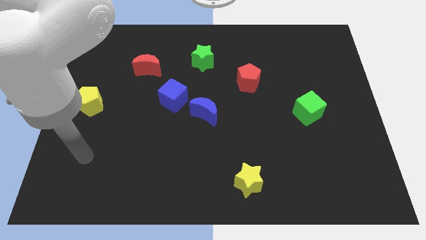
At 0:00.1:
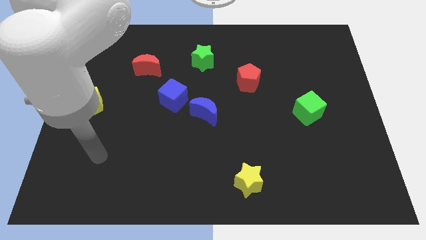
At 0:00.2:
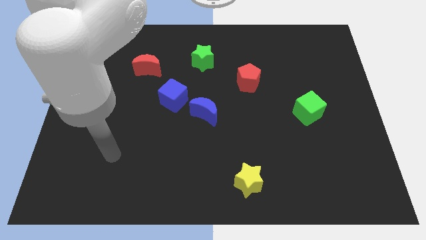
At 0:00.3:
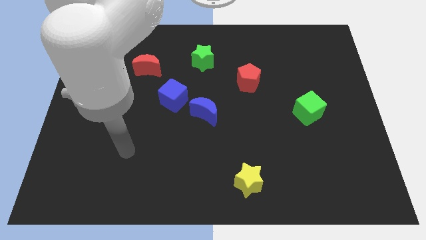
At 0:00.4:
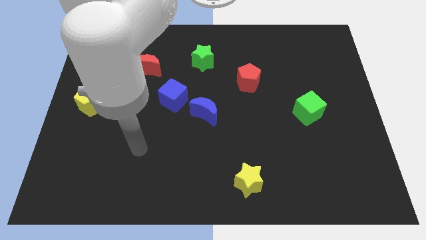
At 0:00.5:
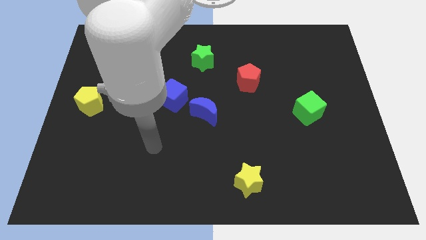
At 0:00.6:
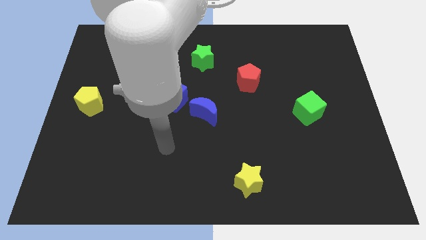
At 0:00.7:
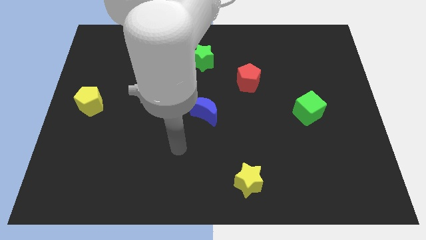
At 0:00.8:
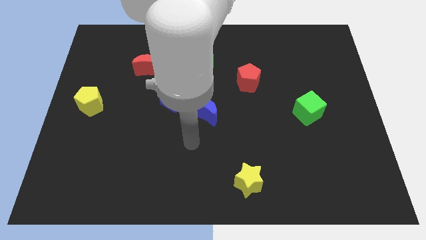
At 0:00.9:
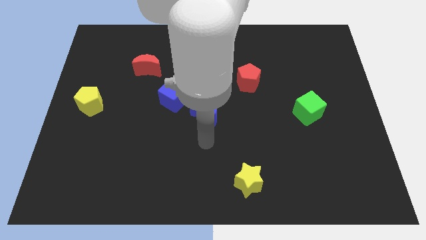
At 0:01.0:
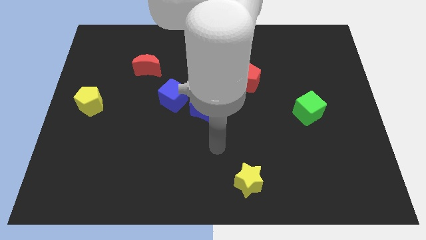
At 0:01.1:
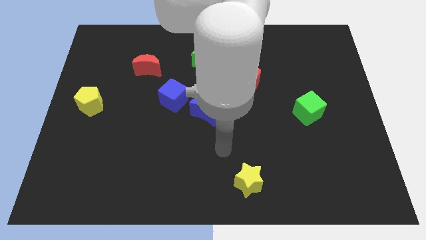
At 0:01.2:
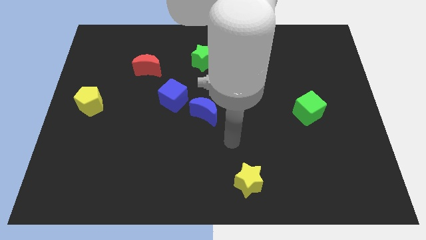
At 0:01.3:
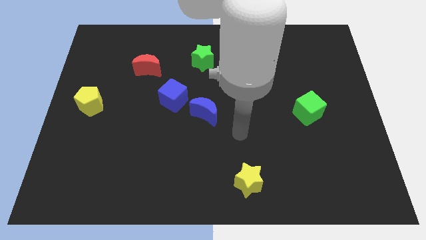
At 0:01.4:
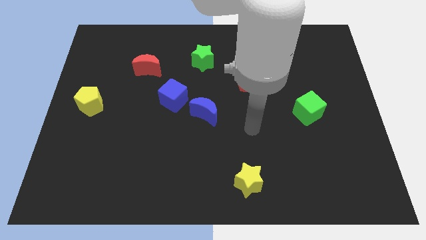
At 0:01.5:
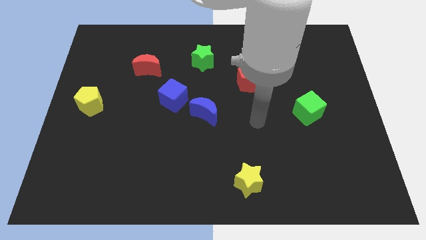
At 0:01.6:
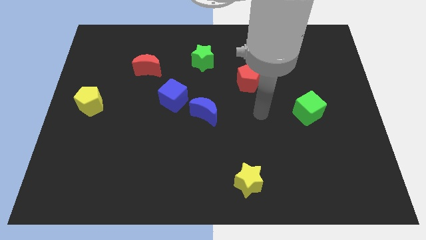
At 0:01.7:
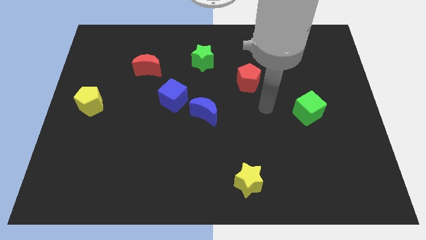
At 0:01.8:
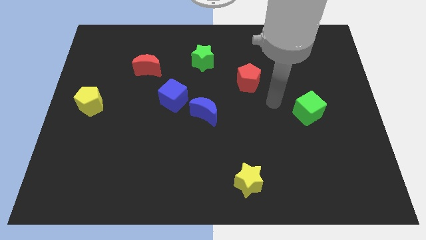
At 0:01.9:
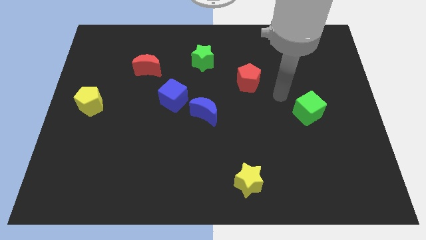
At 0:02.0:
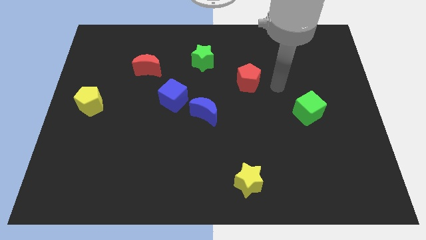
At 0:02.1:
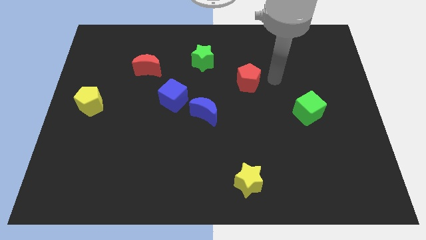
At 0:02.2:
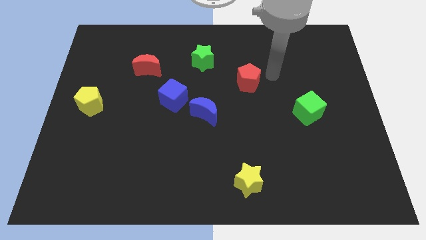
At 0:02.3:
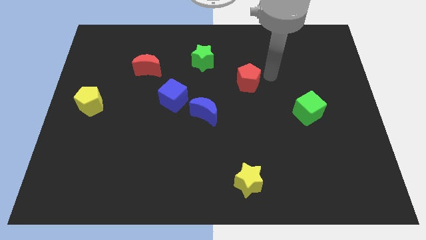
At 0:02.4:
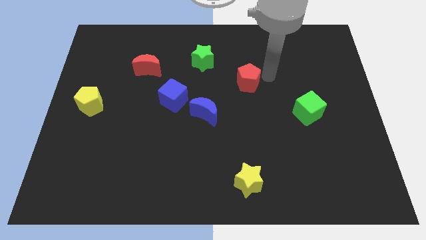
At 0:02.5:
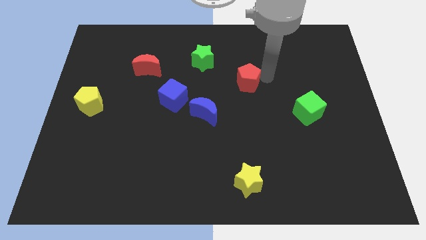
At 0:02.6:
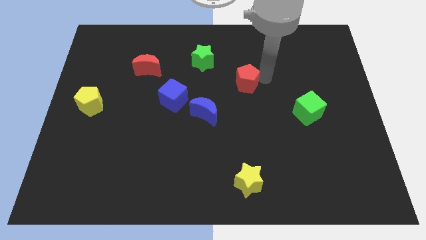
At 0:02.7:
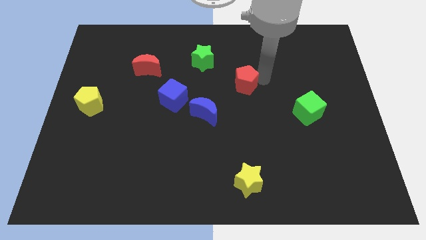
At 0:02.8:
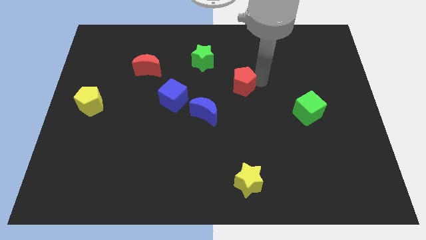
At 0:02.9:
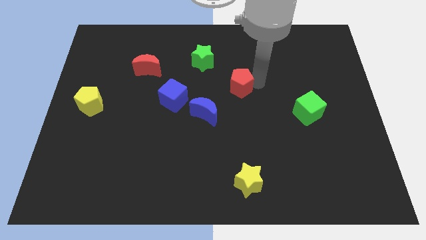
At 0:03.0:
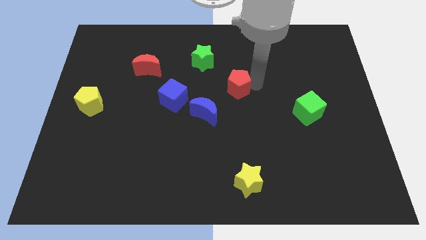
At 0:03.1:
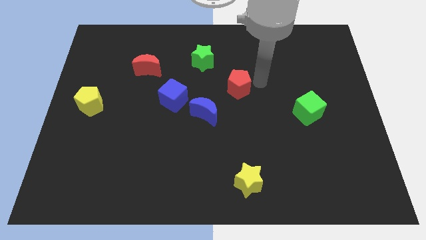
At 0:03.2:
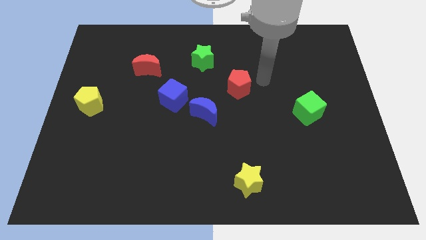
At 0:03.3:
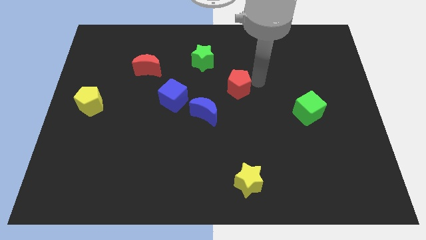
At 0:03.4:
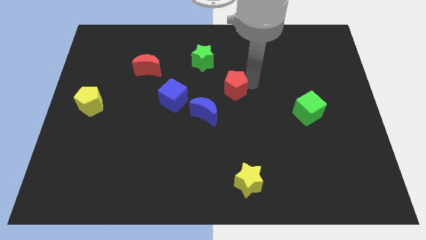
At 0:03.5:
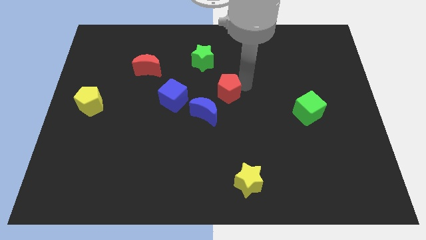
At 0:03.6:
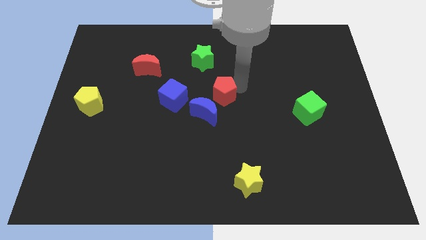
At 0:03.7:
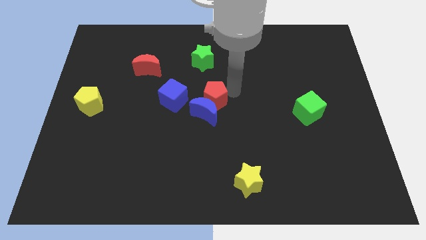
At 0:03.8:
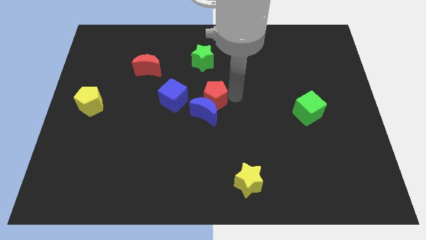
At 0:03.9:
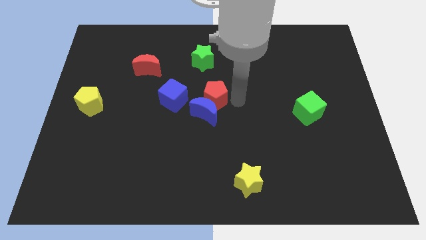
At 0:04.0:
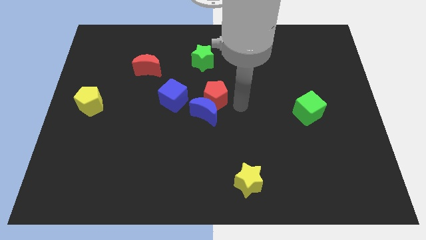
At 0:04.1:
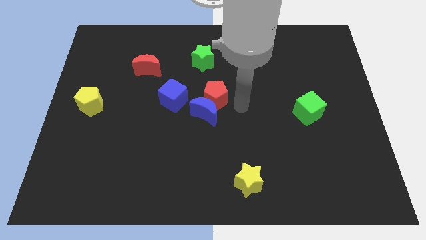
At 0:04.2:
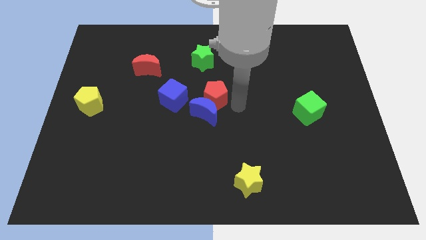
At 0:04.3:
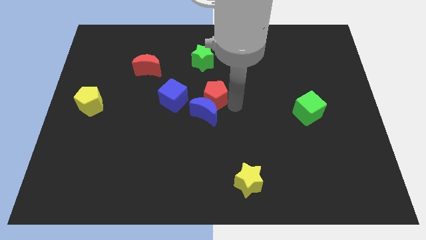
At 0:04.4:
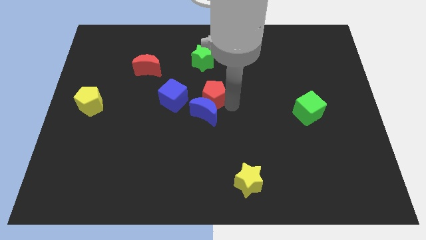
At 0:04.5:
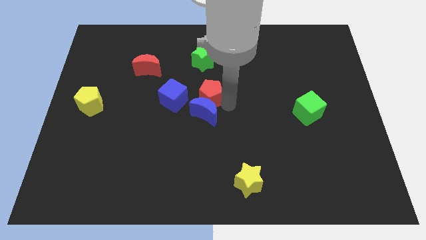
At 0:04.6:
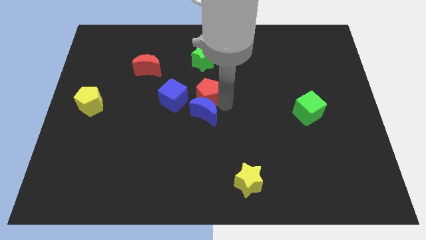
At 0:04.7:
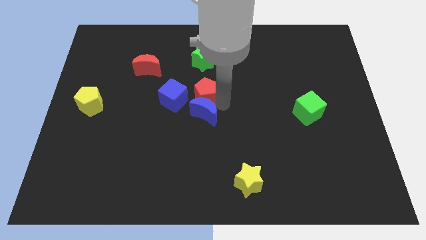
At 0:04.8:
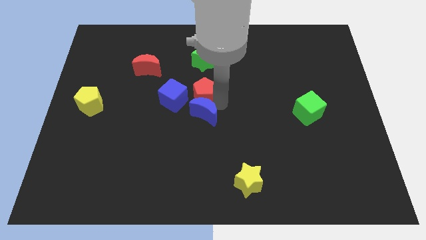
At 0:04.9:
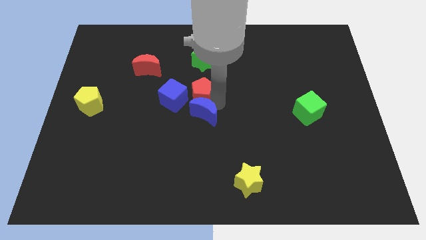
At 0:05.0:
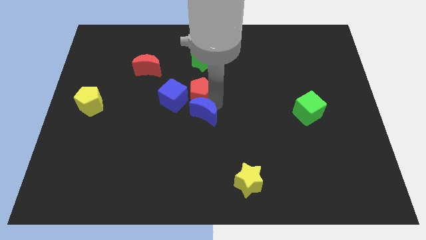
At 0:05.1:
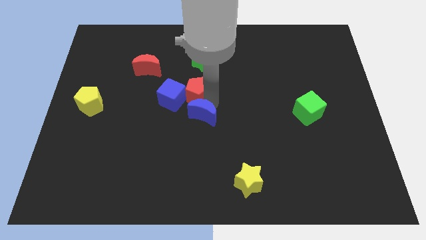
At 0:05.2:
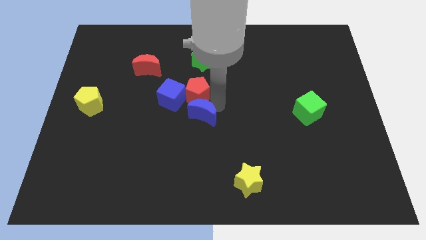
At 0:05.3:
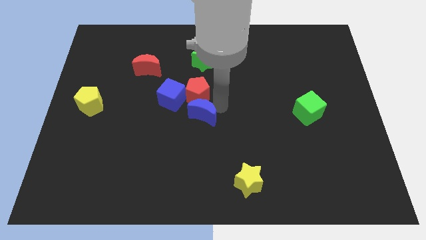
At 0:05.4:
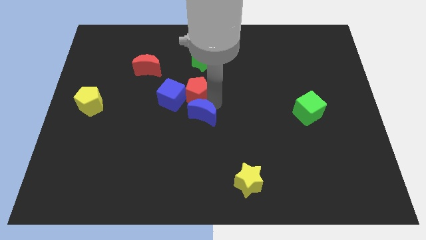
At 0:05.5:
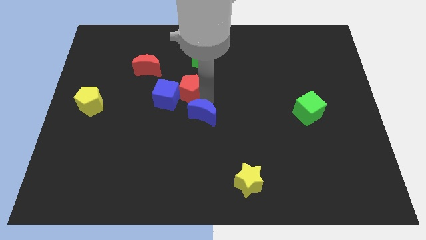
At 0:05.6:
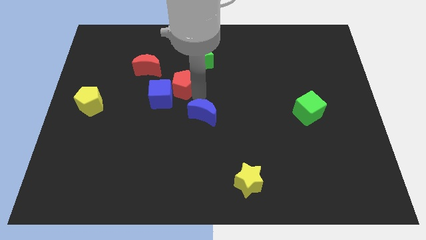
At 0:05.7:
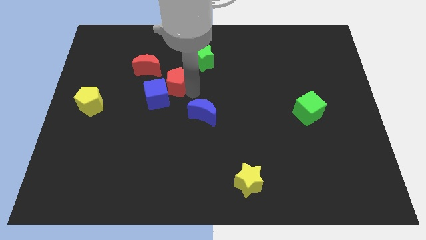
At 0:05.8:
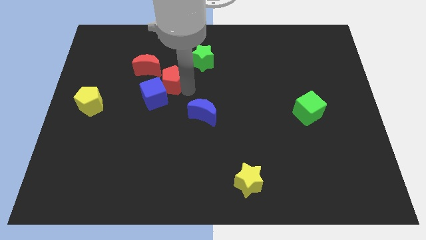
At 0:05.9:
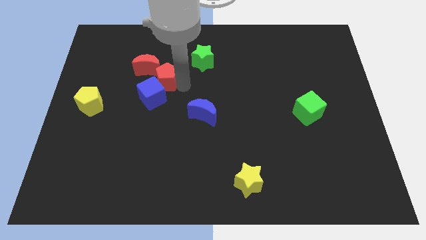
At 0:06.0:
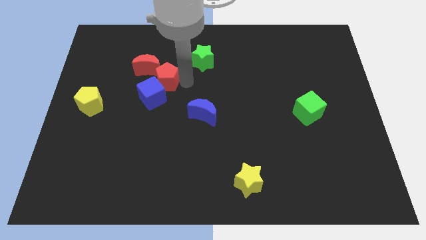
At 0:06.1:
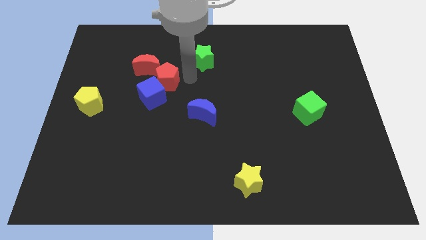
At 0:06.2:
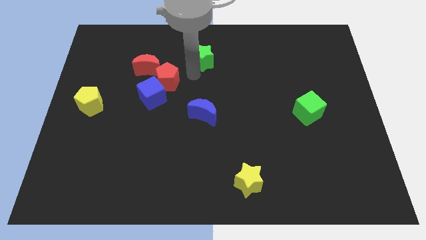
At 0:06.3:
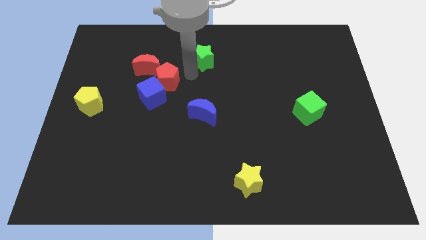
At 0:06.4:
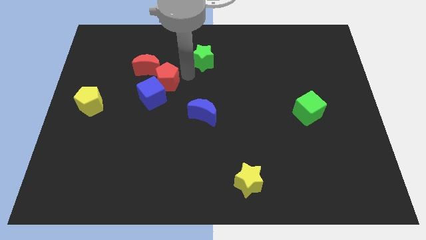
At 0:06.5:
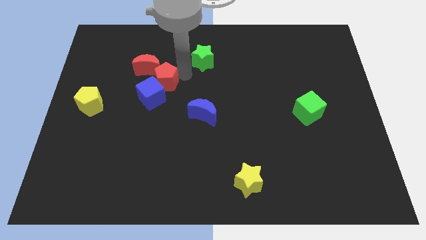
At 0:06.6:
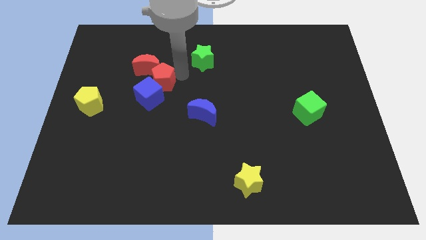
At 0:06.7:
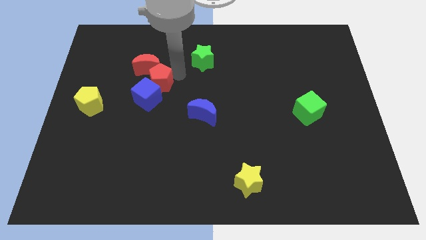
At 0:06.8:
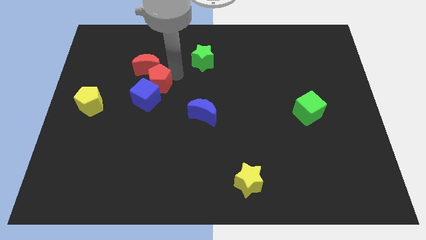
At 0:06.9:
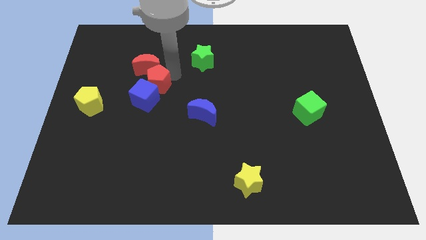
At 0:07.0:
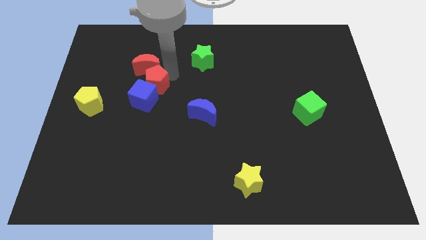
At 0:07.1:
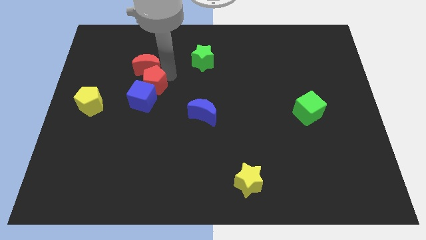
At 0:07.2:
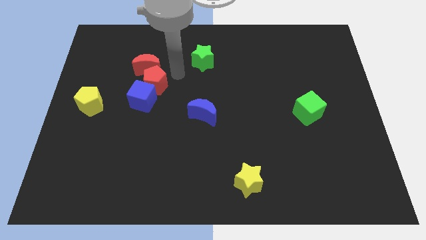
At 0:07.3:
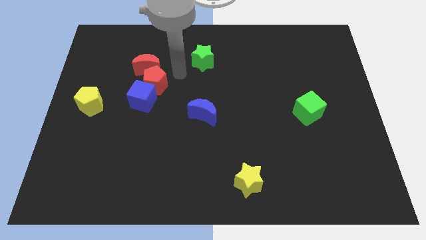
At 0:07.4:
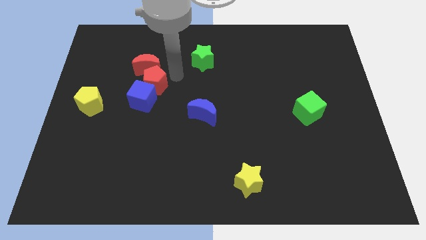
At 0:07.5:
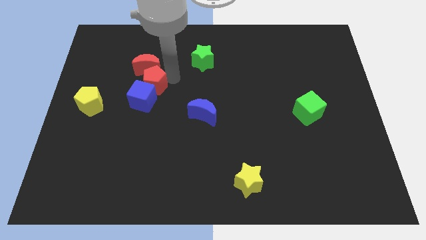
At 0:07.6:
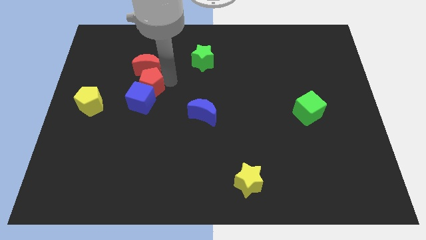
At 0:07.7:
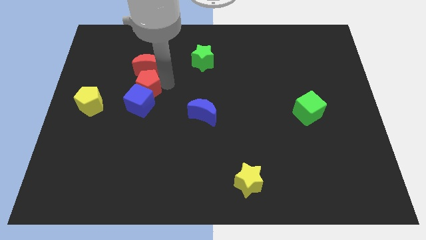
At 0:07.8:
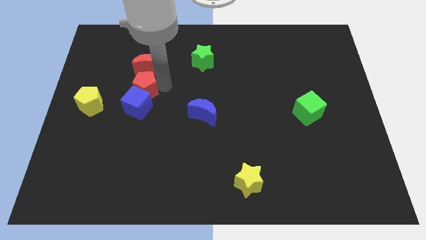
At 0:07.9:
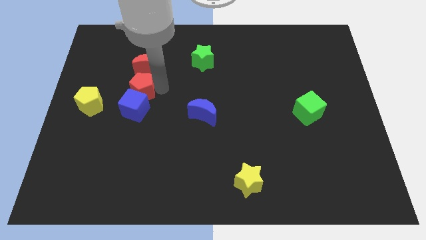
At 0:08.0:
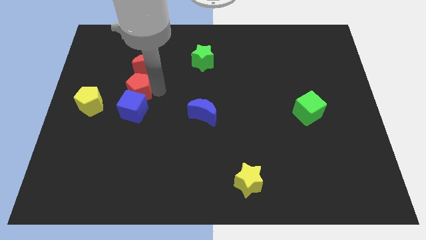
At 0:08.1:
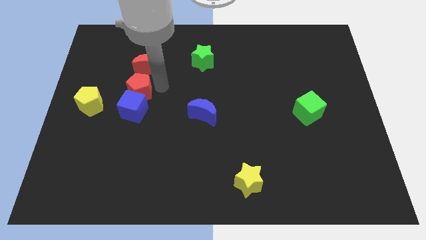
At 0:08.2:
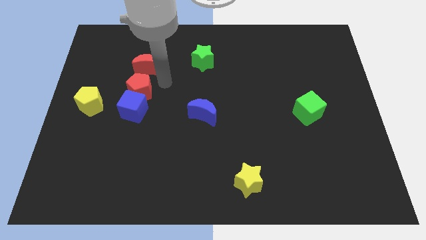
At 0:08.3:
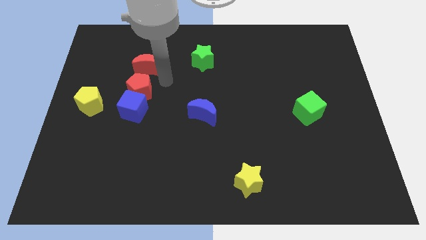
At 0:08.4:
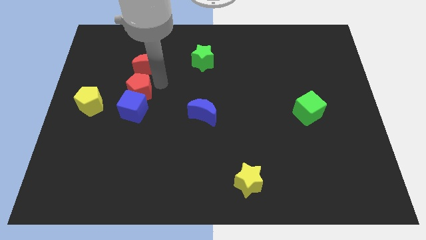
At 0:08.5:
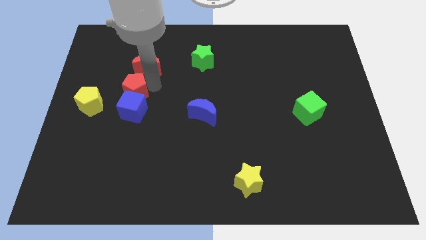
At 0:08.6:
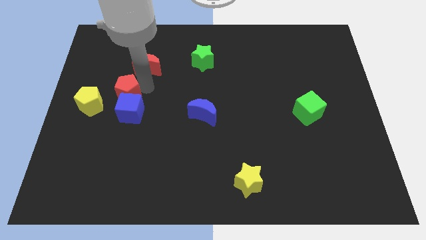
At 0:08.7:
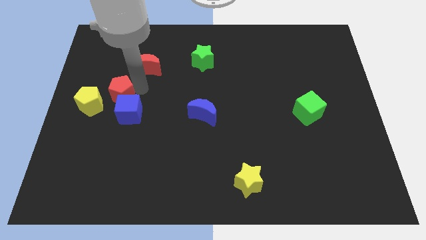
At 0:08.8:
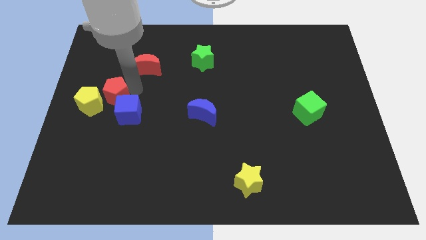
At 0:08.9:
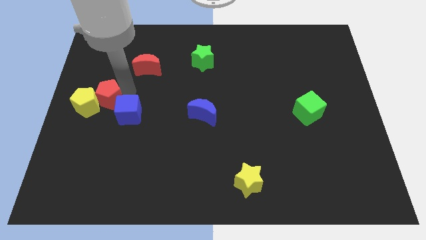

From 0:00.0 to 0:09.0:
slide the red pentagon close to the yellow pentagon
